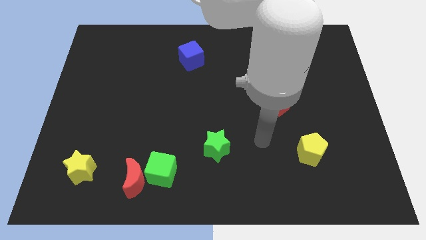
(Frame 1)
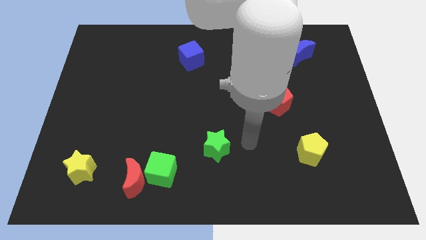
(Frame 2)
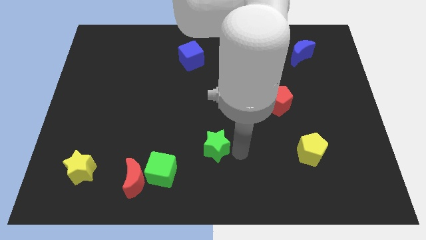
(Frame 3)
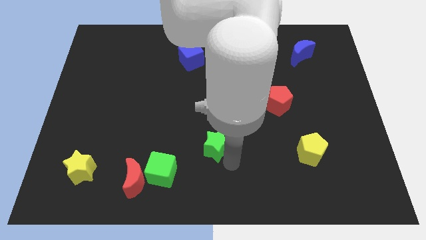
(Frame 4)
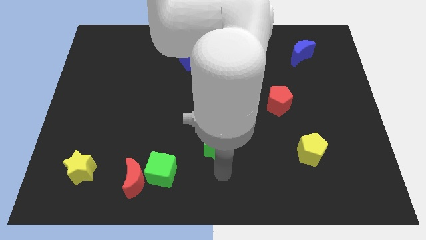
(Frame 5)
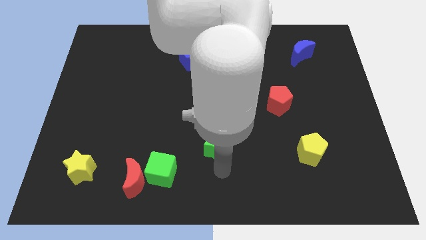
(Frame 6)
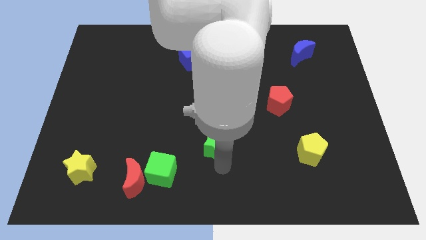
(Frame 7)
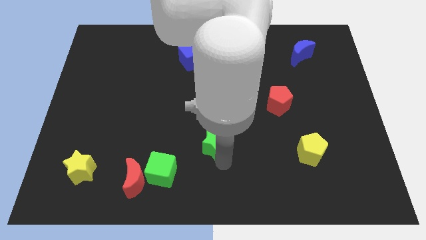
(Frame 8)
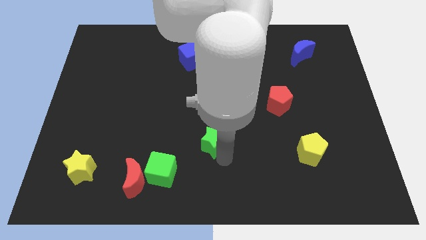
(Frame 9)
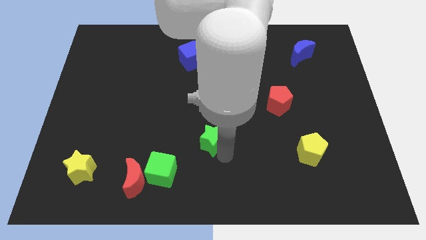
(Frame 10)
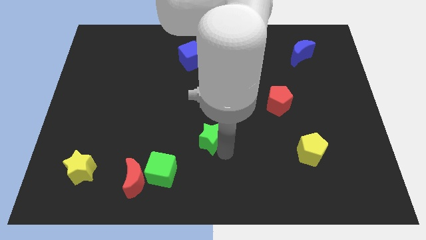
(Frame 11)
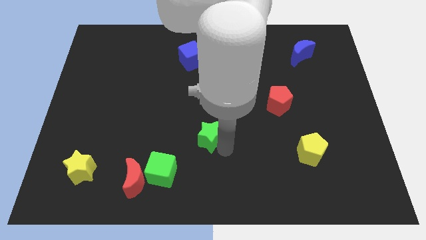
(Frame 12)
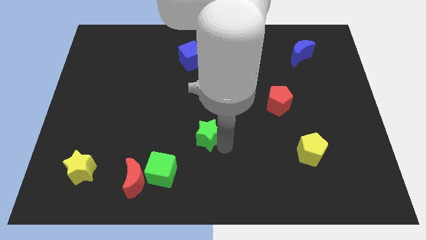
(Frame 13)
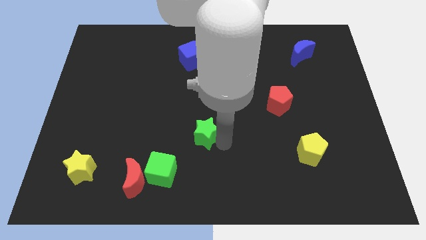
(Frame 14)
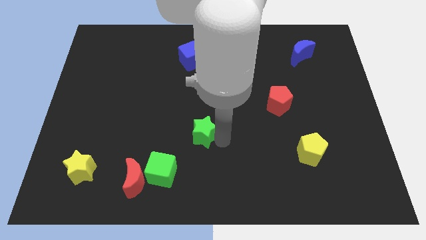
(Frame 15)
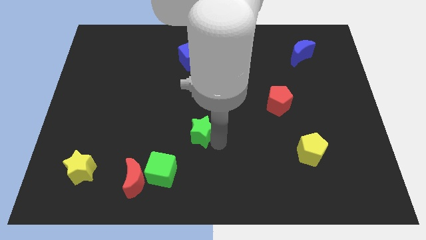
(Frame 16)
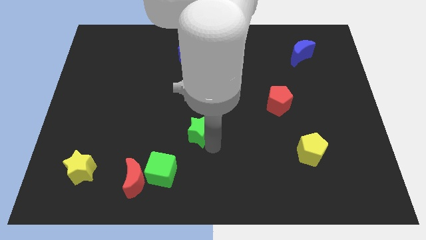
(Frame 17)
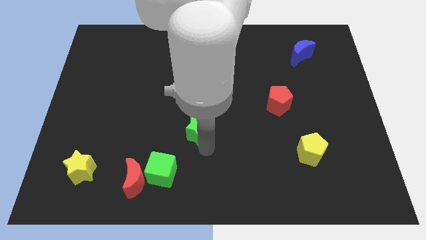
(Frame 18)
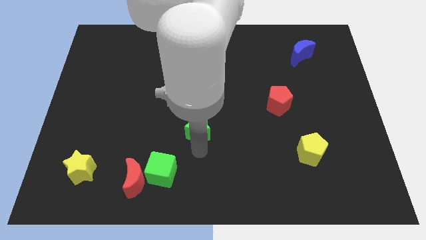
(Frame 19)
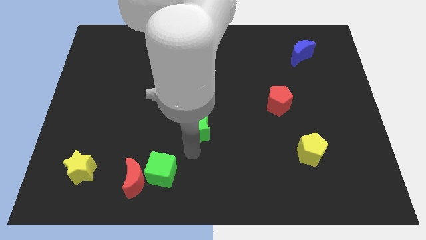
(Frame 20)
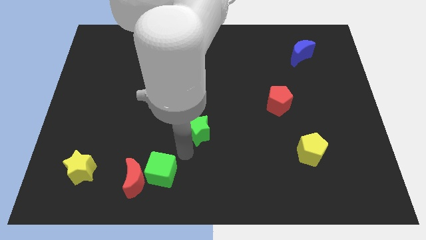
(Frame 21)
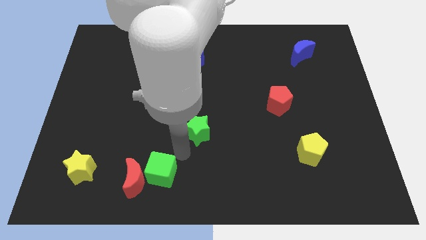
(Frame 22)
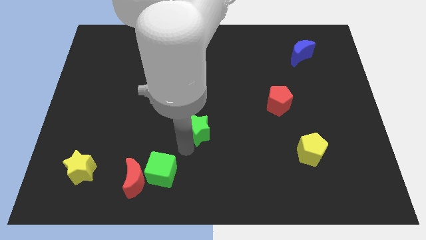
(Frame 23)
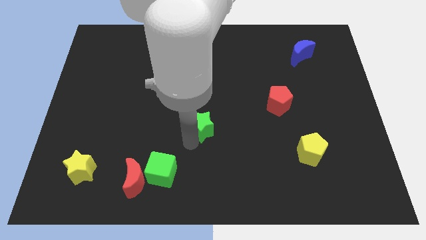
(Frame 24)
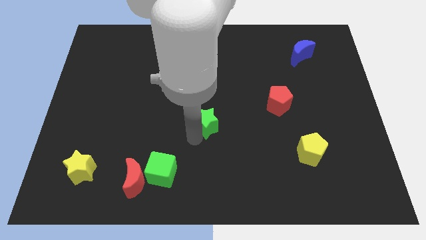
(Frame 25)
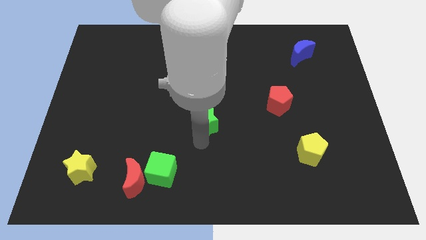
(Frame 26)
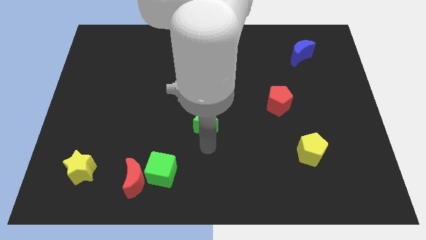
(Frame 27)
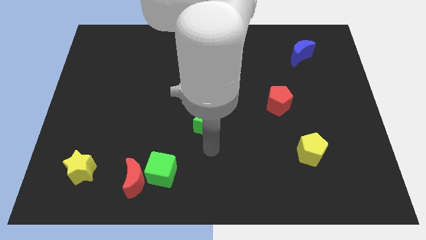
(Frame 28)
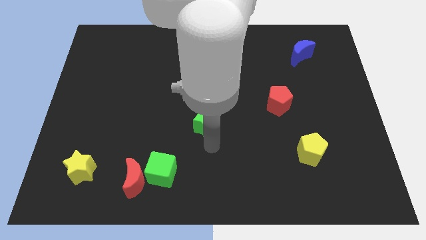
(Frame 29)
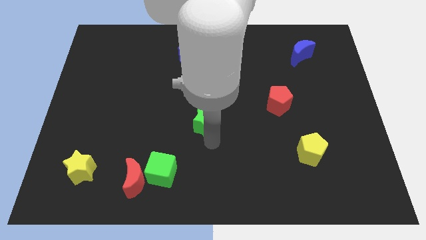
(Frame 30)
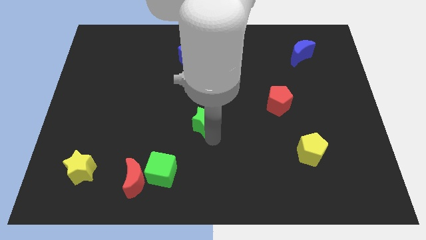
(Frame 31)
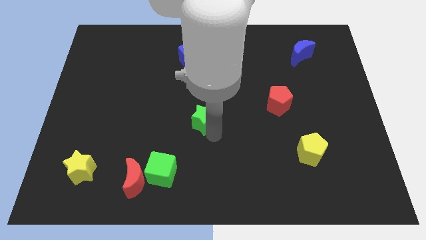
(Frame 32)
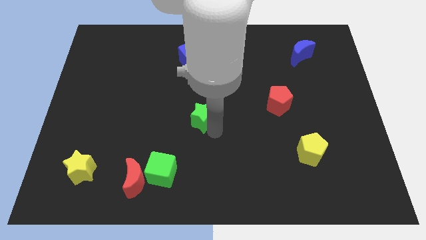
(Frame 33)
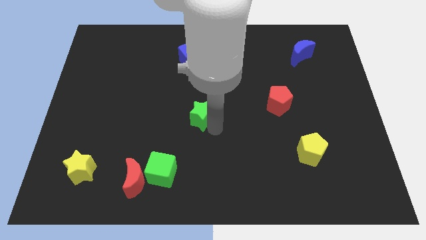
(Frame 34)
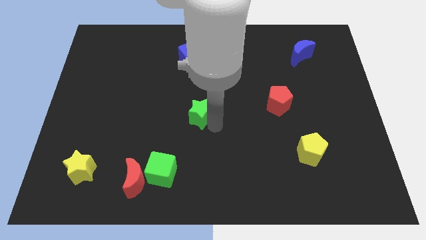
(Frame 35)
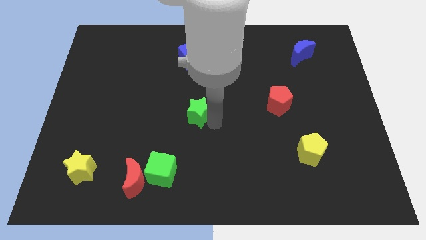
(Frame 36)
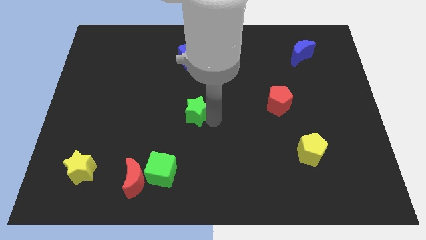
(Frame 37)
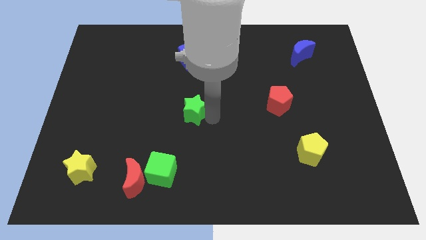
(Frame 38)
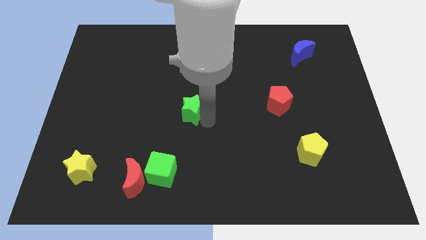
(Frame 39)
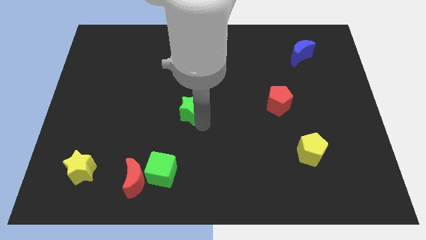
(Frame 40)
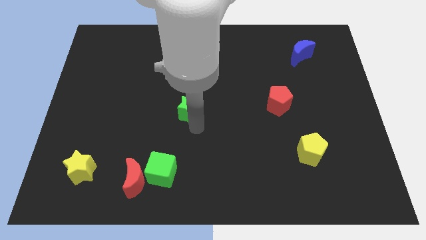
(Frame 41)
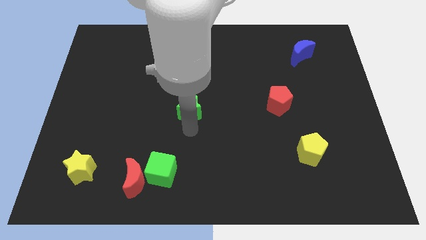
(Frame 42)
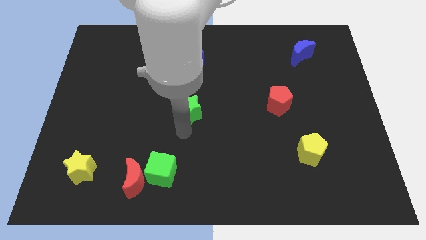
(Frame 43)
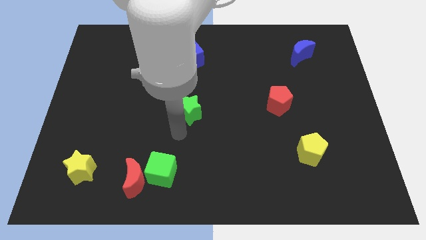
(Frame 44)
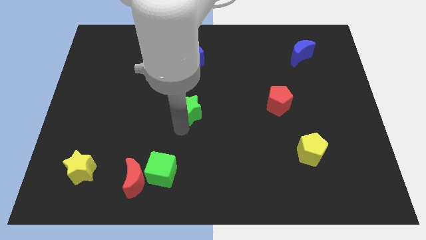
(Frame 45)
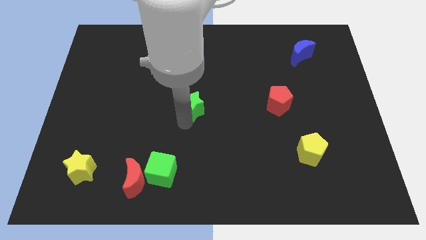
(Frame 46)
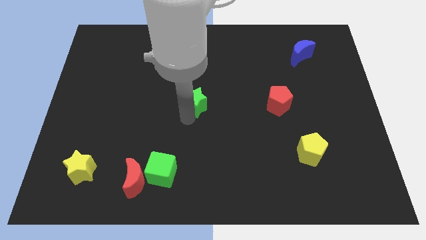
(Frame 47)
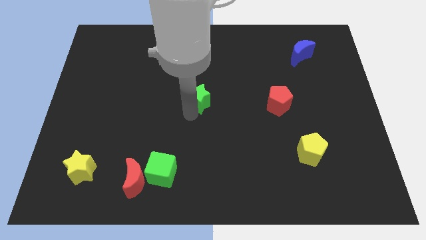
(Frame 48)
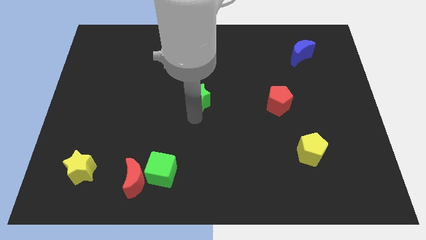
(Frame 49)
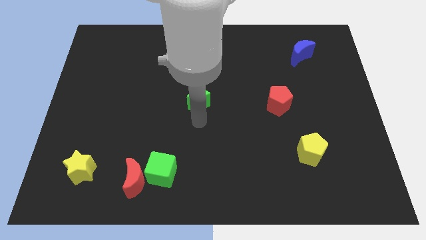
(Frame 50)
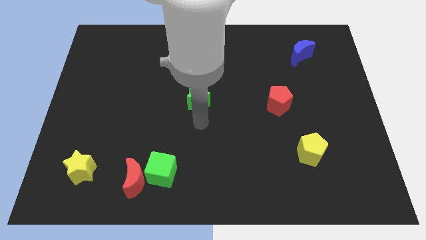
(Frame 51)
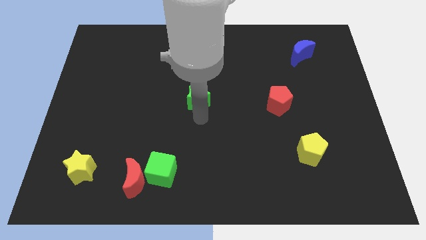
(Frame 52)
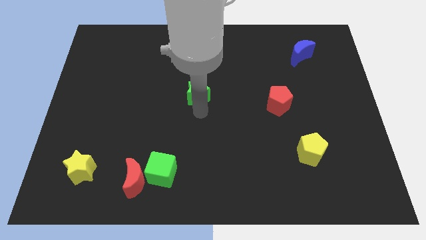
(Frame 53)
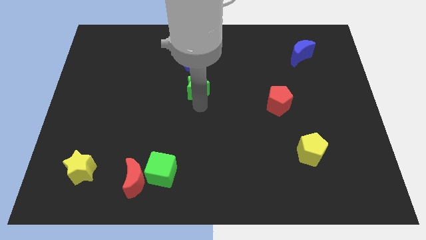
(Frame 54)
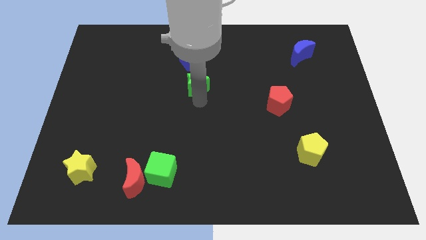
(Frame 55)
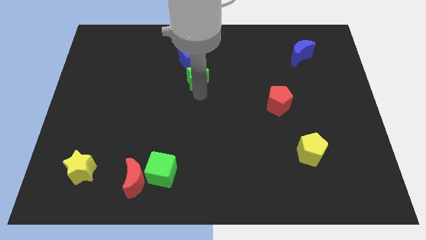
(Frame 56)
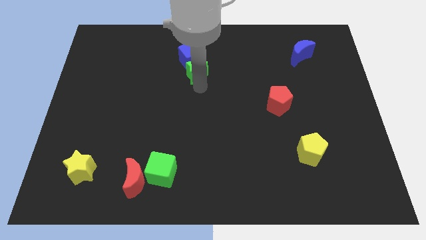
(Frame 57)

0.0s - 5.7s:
put the green star close to the blue cube
